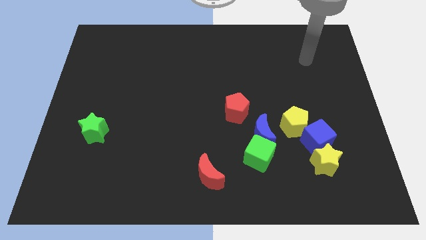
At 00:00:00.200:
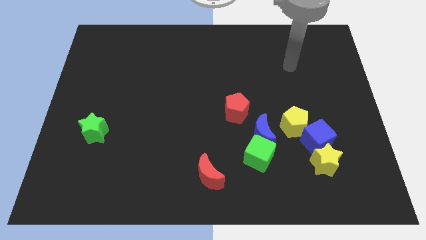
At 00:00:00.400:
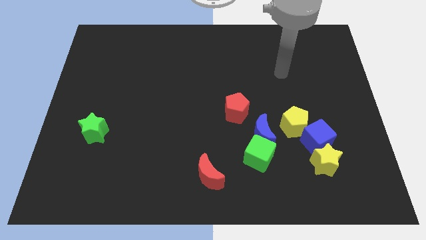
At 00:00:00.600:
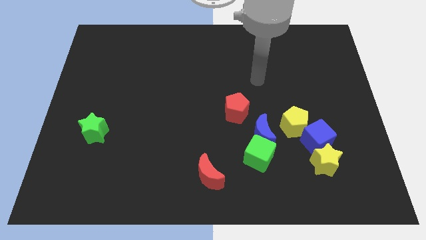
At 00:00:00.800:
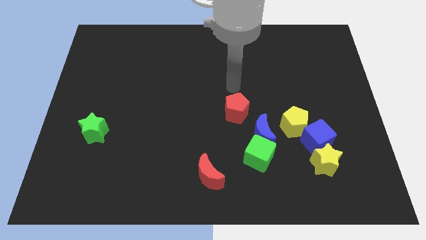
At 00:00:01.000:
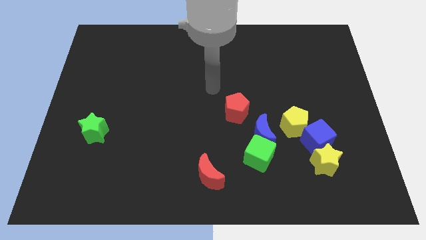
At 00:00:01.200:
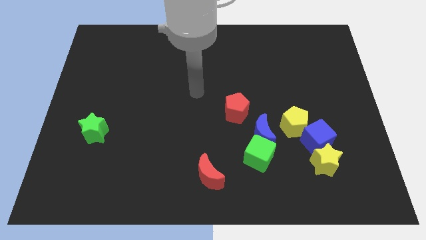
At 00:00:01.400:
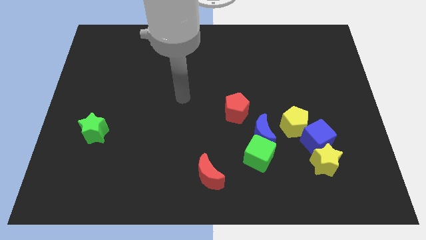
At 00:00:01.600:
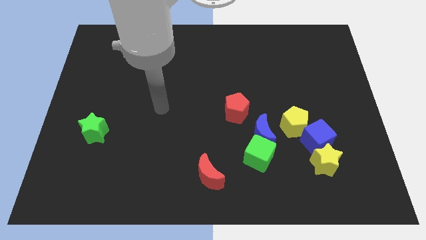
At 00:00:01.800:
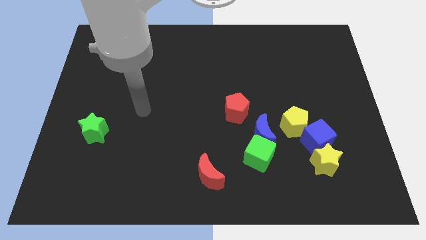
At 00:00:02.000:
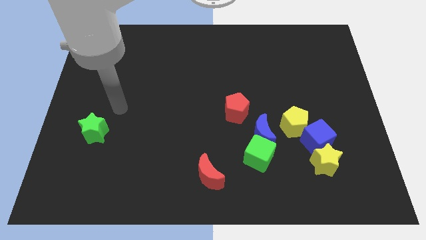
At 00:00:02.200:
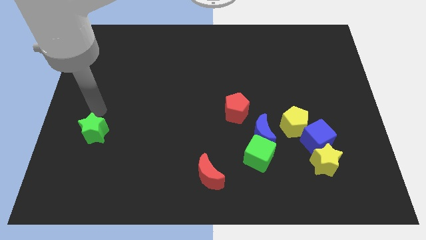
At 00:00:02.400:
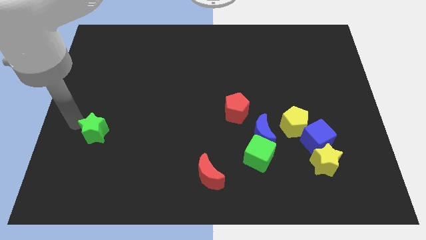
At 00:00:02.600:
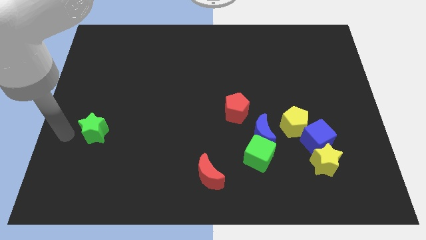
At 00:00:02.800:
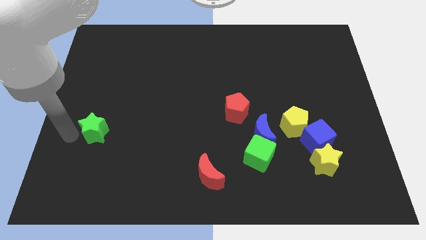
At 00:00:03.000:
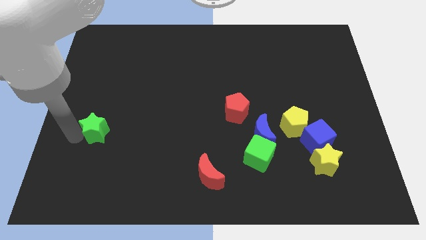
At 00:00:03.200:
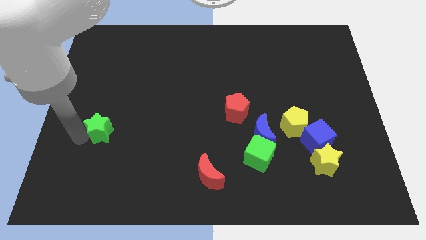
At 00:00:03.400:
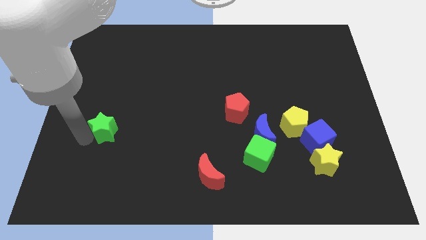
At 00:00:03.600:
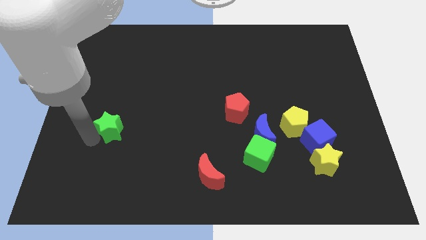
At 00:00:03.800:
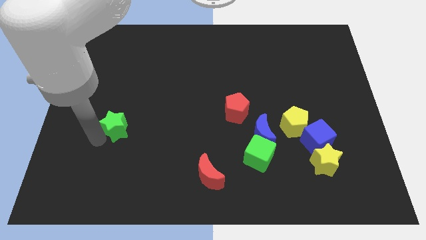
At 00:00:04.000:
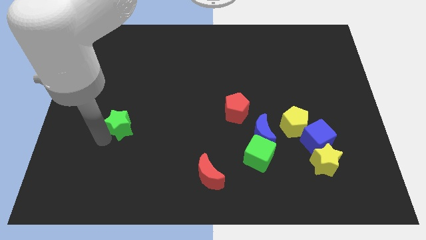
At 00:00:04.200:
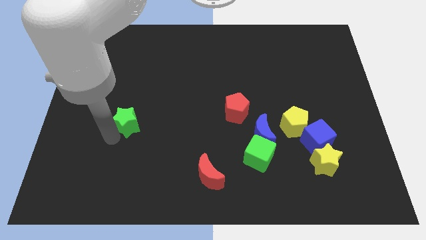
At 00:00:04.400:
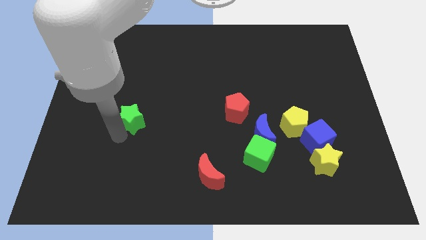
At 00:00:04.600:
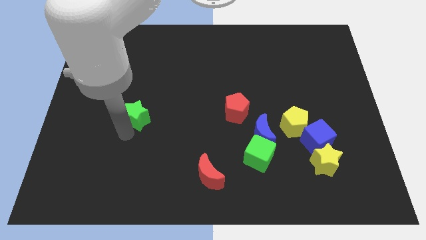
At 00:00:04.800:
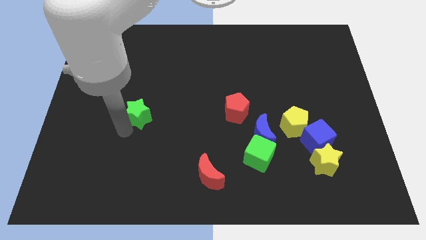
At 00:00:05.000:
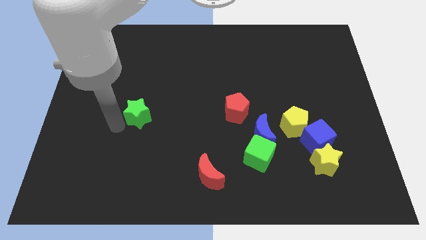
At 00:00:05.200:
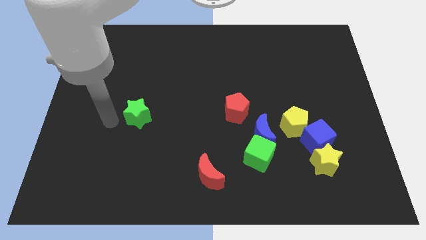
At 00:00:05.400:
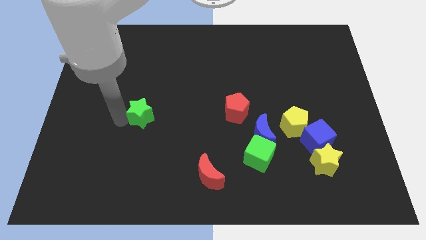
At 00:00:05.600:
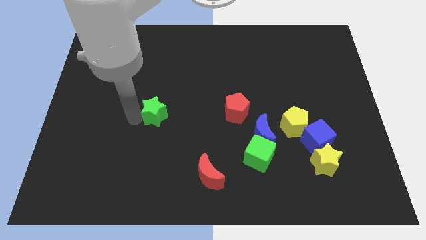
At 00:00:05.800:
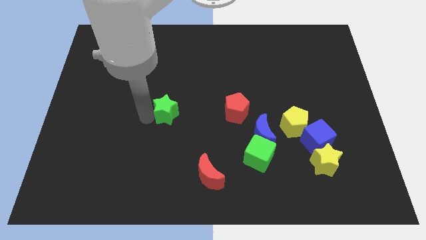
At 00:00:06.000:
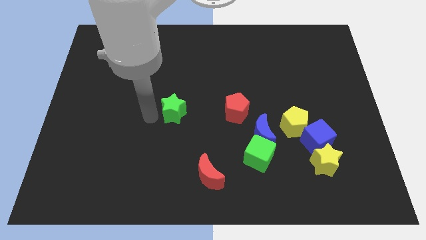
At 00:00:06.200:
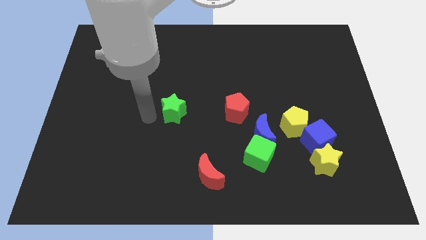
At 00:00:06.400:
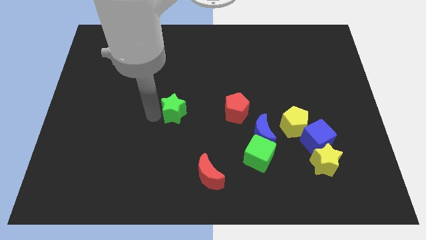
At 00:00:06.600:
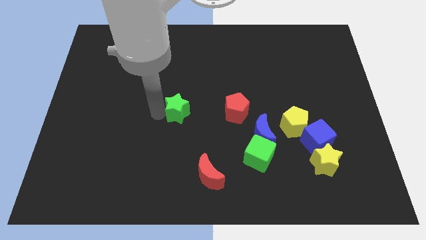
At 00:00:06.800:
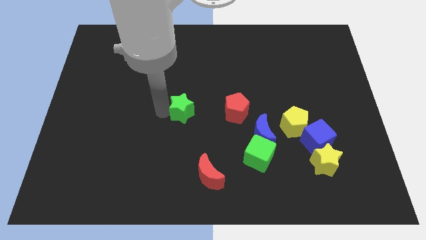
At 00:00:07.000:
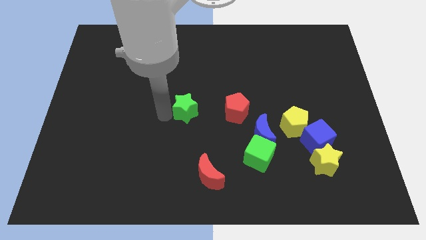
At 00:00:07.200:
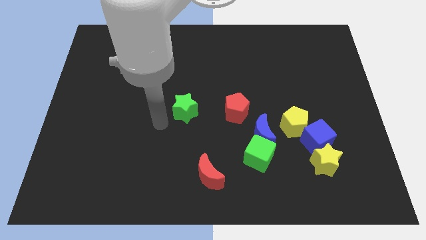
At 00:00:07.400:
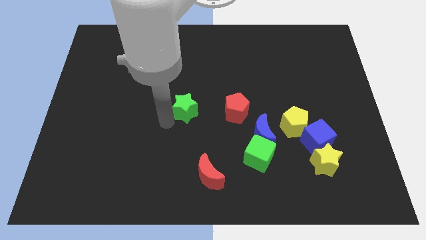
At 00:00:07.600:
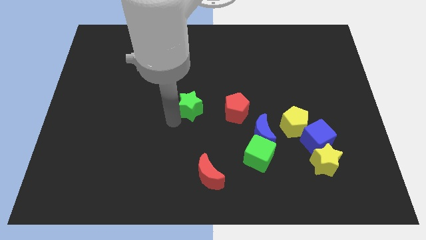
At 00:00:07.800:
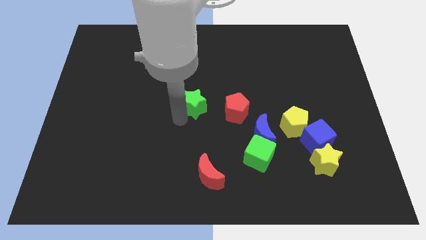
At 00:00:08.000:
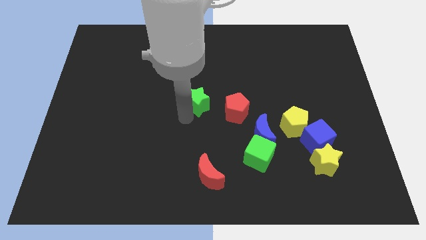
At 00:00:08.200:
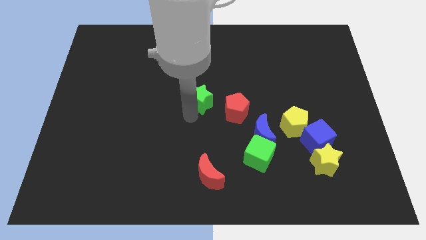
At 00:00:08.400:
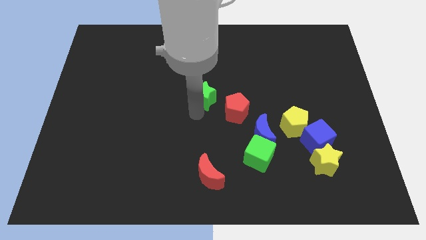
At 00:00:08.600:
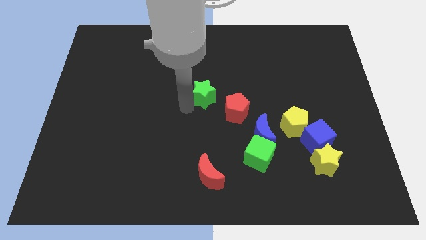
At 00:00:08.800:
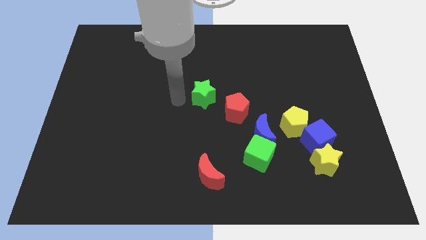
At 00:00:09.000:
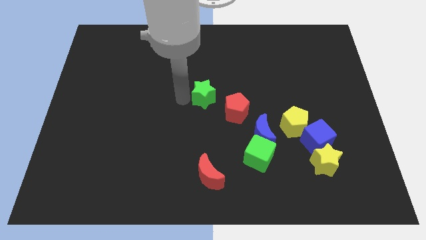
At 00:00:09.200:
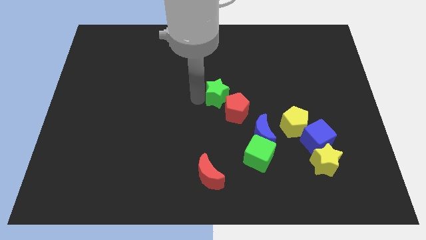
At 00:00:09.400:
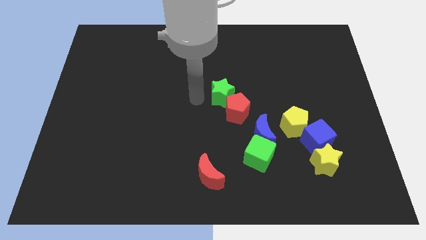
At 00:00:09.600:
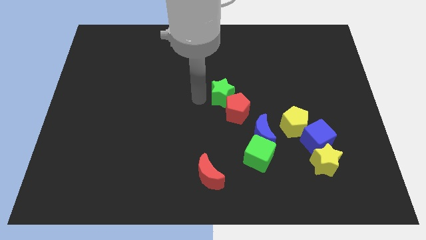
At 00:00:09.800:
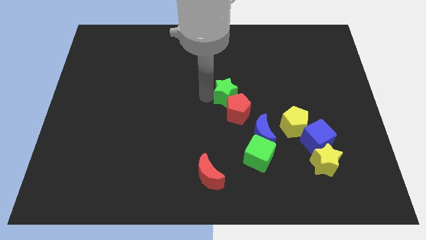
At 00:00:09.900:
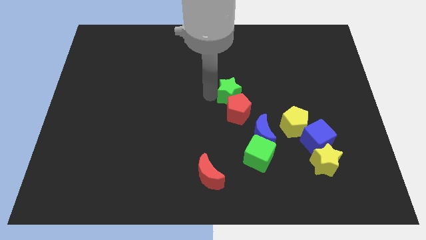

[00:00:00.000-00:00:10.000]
slide the green star to the top right side of the red pentagon

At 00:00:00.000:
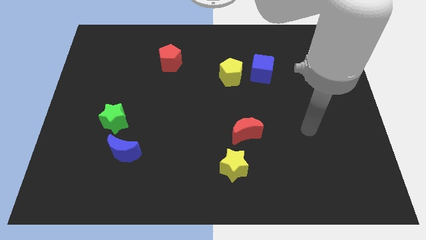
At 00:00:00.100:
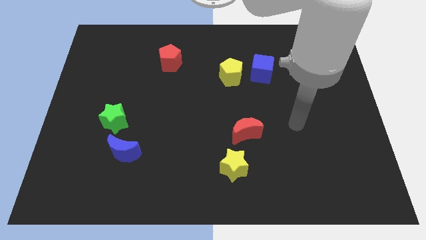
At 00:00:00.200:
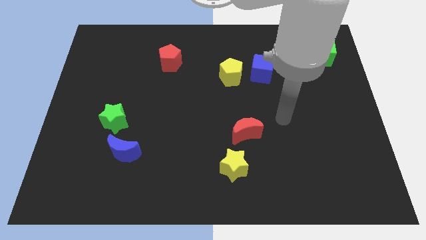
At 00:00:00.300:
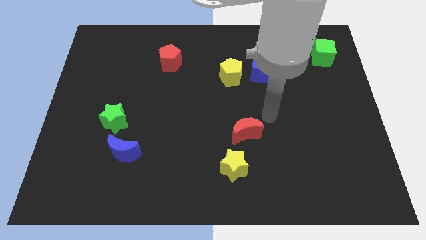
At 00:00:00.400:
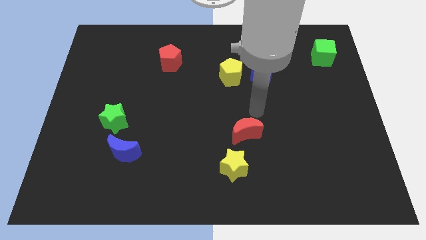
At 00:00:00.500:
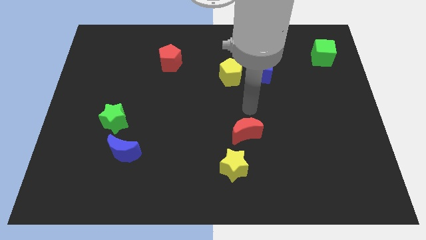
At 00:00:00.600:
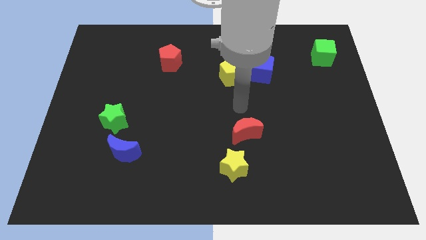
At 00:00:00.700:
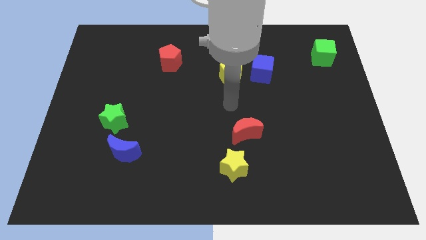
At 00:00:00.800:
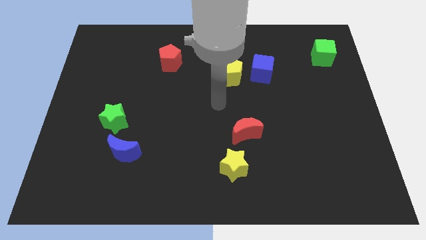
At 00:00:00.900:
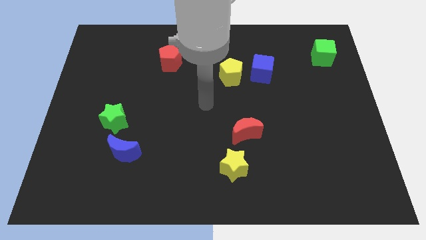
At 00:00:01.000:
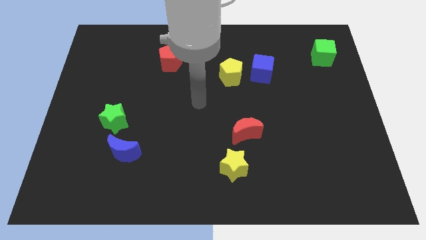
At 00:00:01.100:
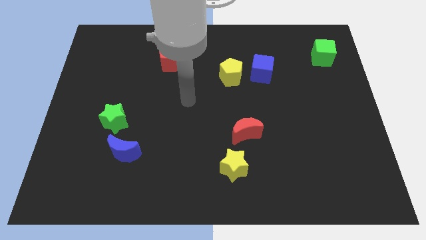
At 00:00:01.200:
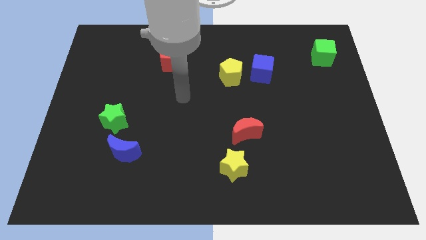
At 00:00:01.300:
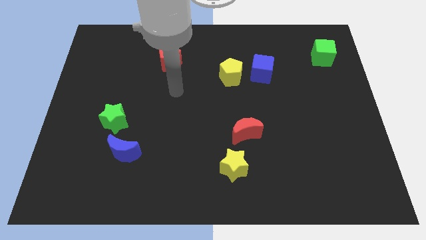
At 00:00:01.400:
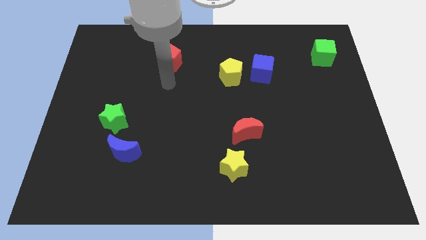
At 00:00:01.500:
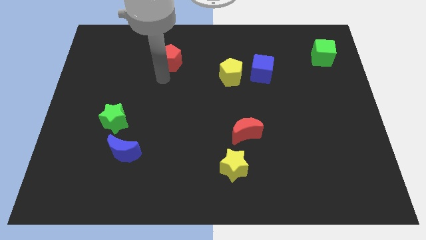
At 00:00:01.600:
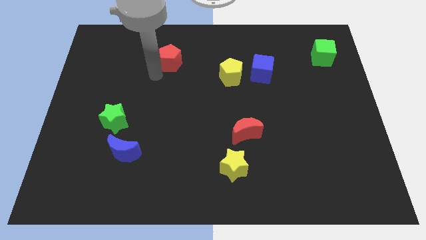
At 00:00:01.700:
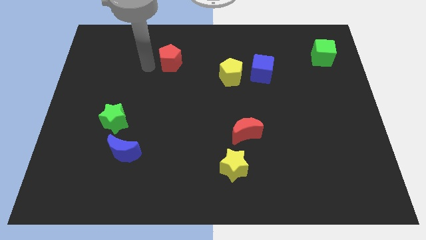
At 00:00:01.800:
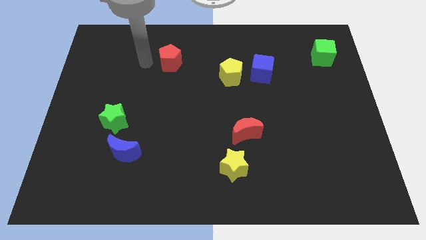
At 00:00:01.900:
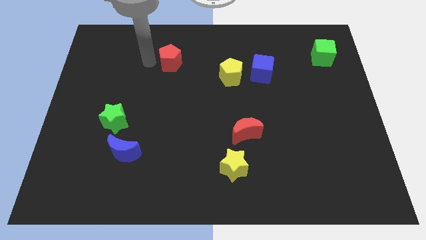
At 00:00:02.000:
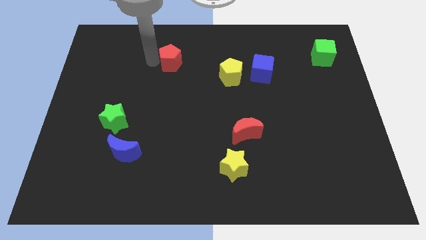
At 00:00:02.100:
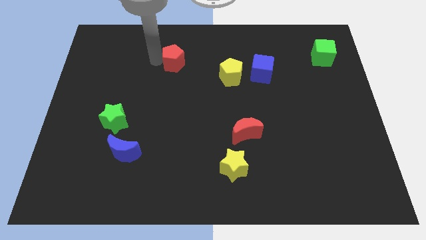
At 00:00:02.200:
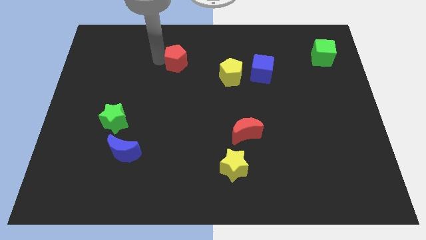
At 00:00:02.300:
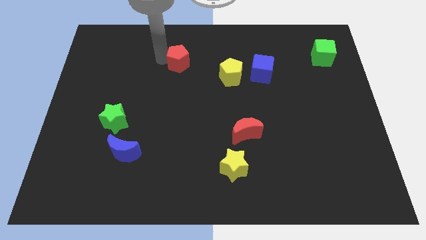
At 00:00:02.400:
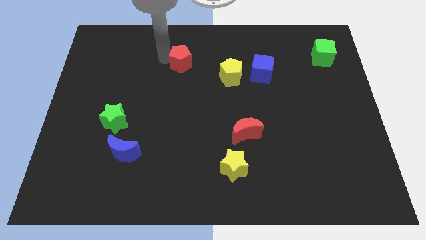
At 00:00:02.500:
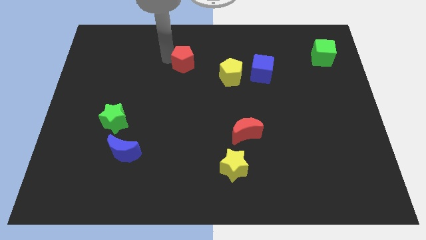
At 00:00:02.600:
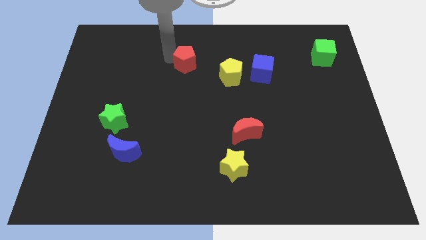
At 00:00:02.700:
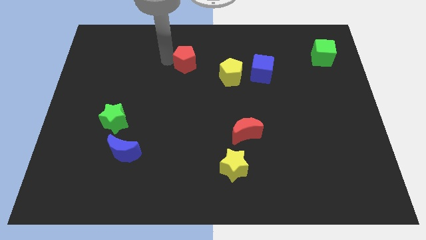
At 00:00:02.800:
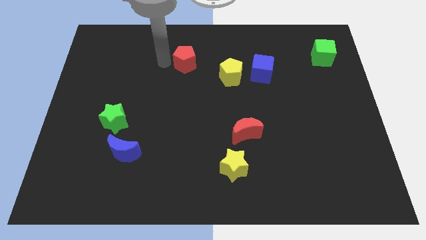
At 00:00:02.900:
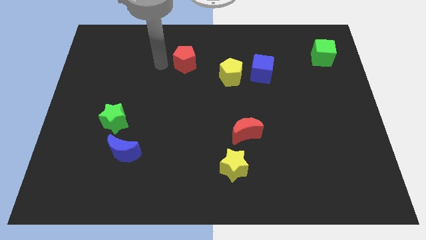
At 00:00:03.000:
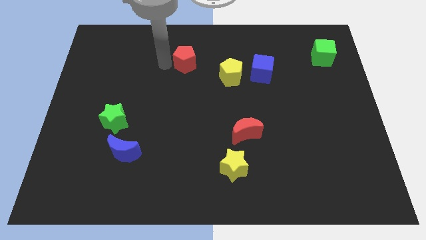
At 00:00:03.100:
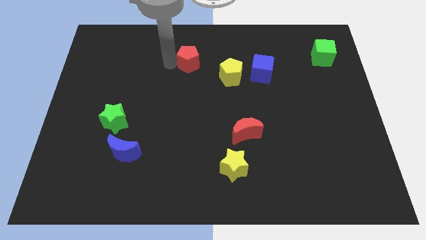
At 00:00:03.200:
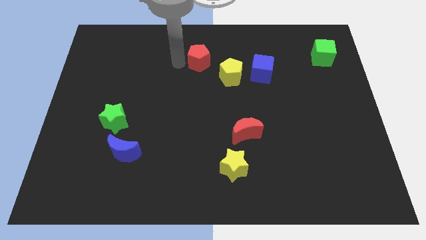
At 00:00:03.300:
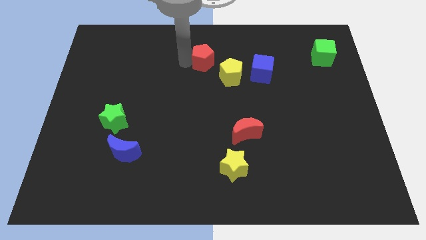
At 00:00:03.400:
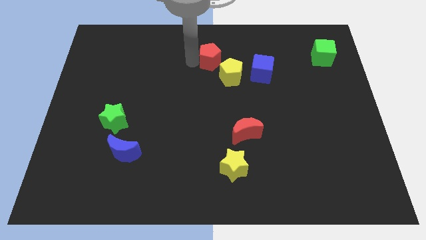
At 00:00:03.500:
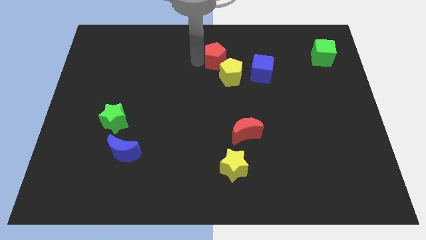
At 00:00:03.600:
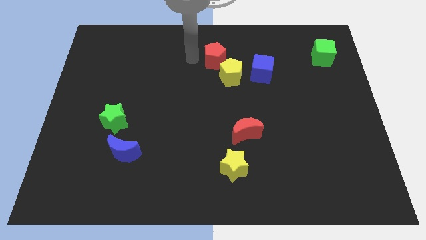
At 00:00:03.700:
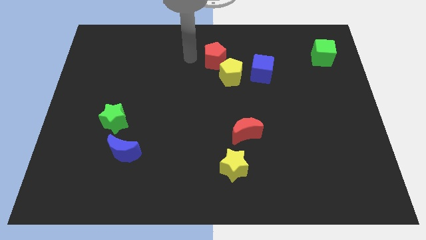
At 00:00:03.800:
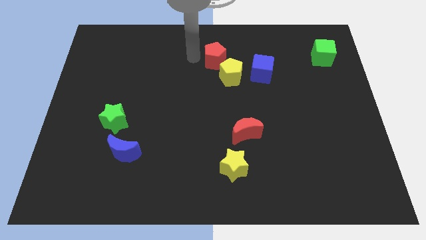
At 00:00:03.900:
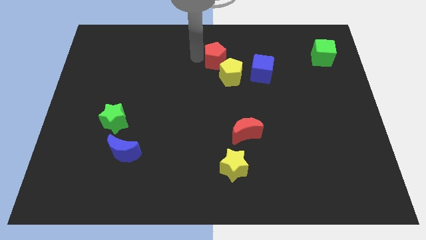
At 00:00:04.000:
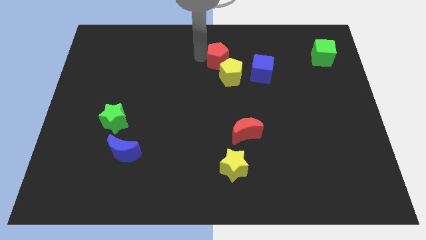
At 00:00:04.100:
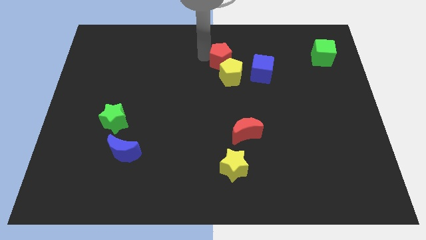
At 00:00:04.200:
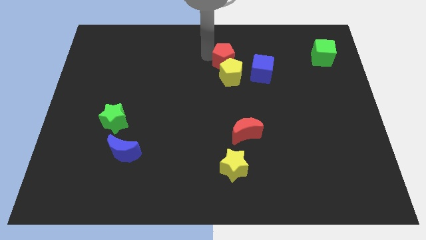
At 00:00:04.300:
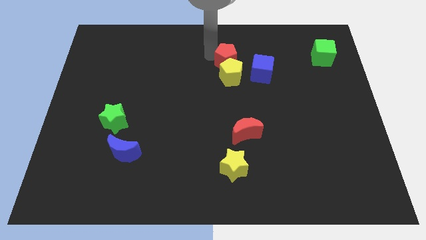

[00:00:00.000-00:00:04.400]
push the red pentagon to the top right of the yellow pentagon
